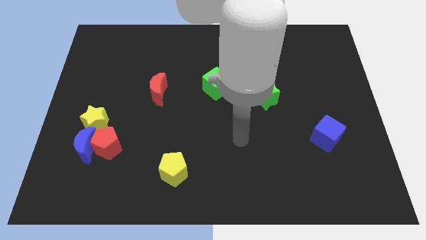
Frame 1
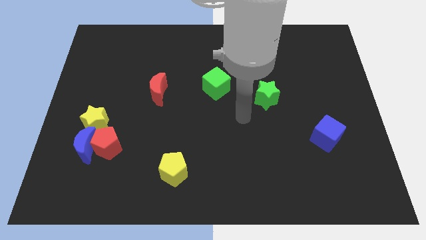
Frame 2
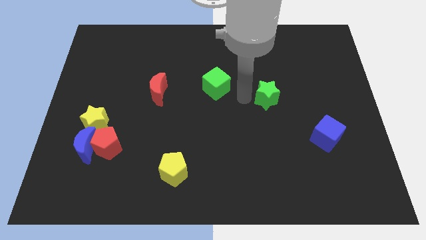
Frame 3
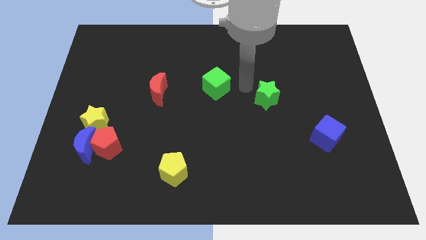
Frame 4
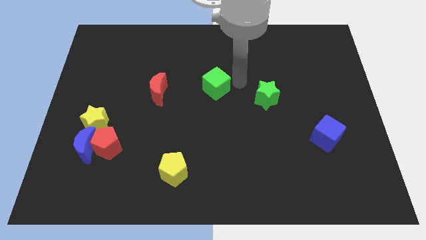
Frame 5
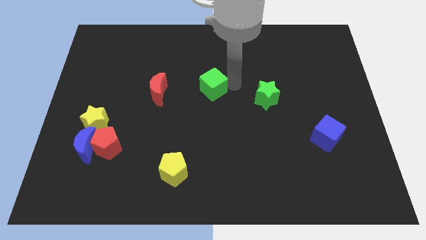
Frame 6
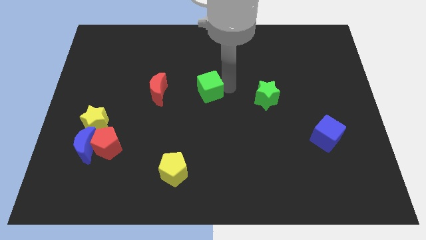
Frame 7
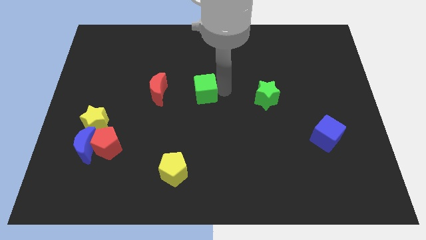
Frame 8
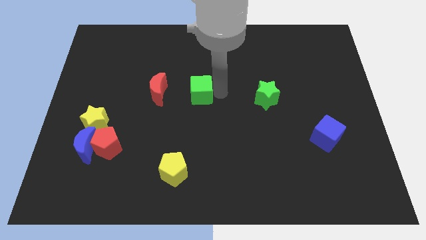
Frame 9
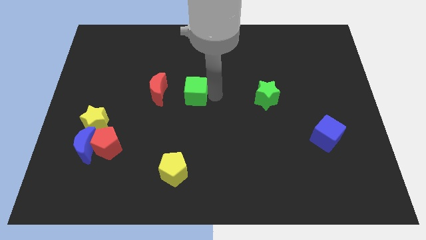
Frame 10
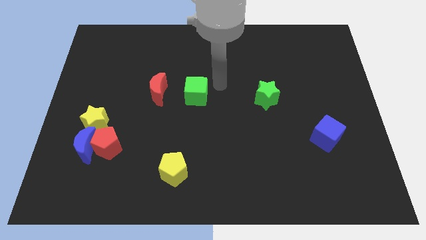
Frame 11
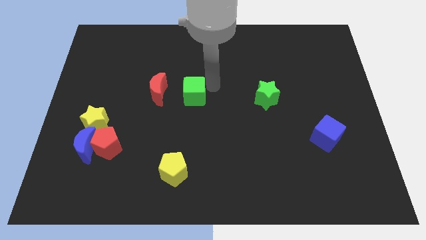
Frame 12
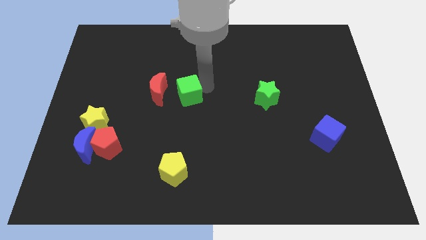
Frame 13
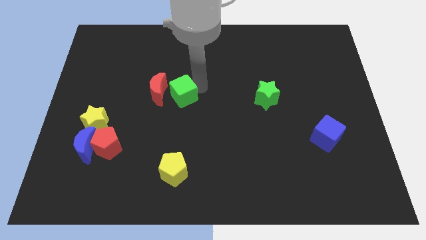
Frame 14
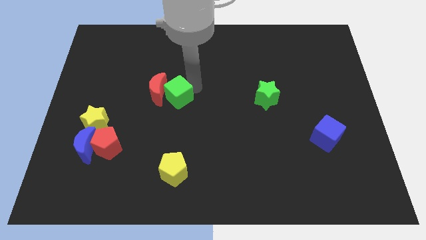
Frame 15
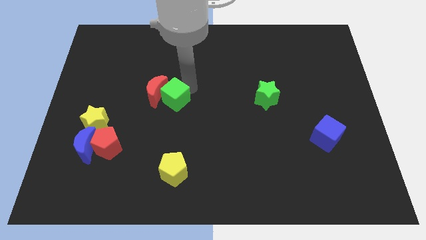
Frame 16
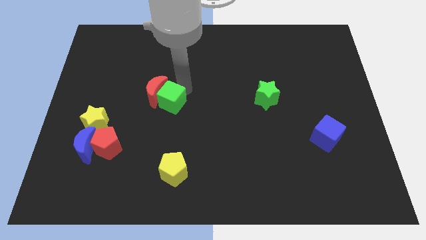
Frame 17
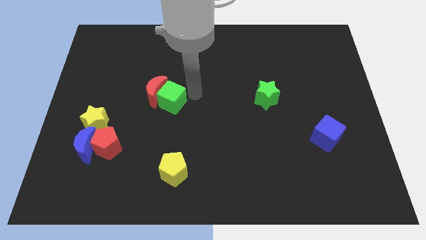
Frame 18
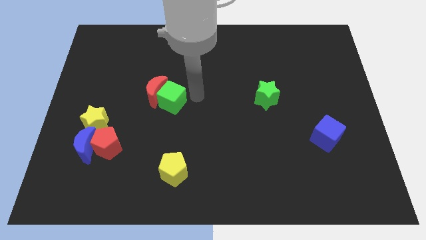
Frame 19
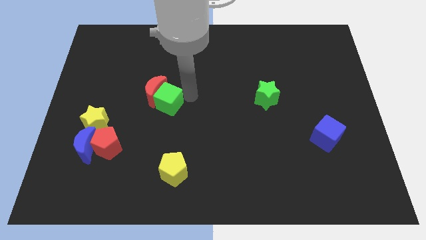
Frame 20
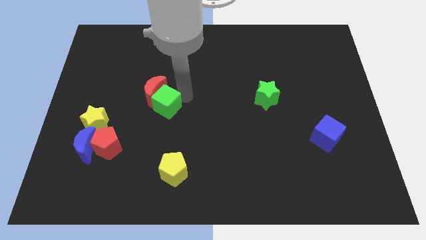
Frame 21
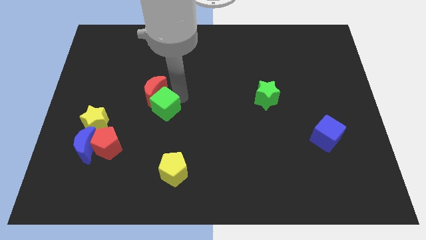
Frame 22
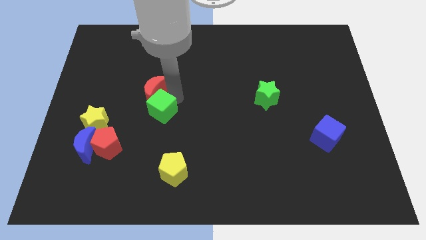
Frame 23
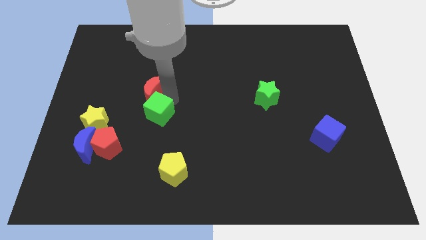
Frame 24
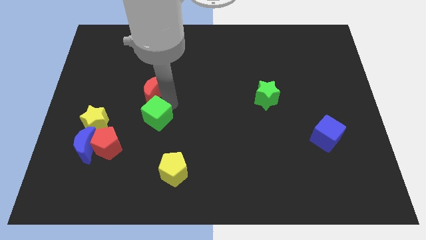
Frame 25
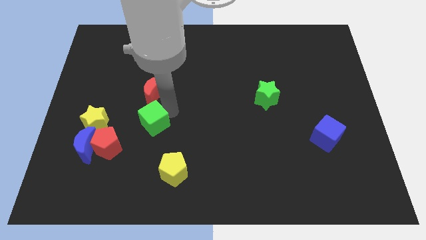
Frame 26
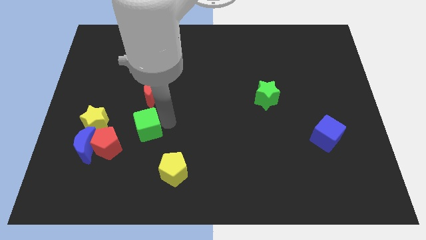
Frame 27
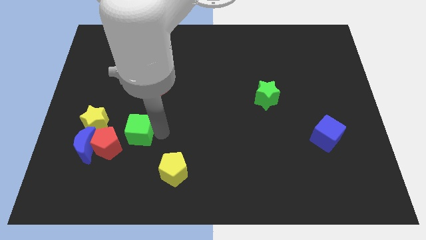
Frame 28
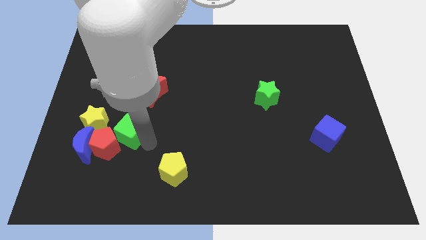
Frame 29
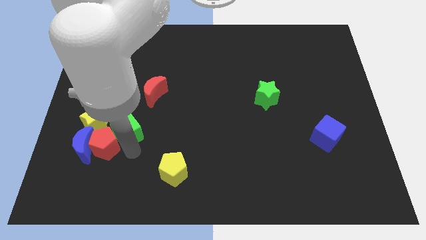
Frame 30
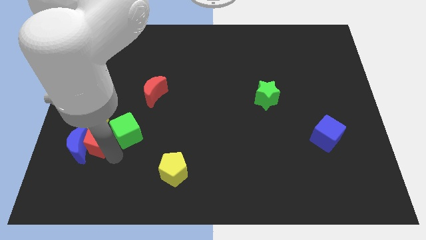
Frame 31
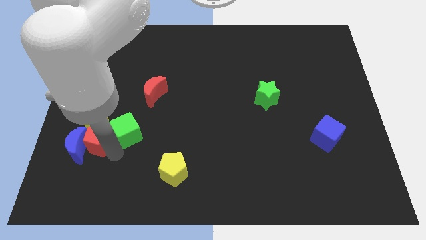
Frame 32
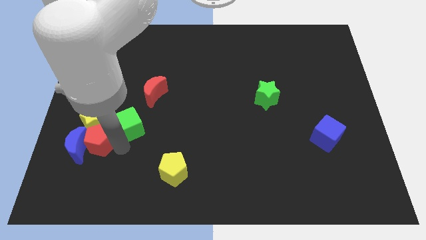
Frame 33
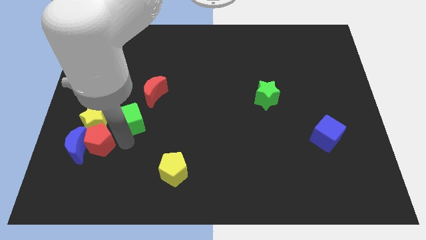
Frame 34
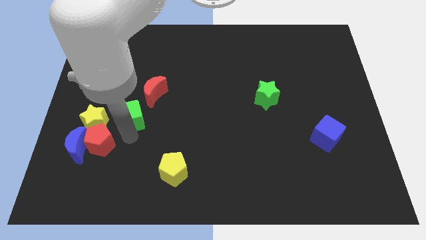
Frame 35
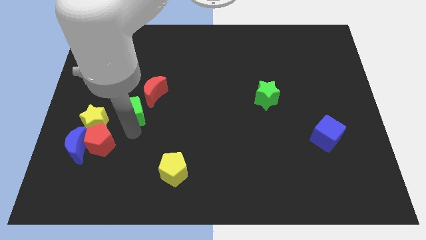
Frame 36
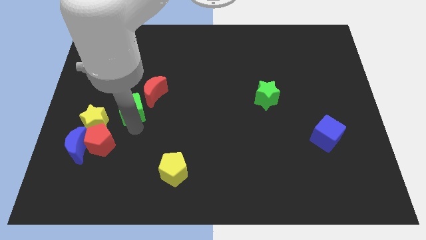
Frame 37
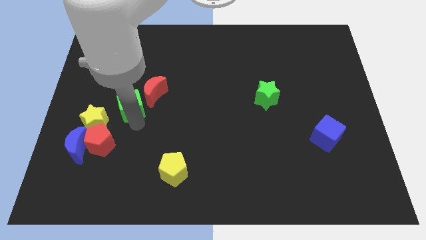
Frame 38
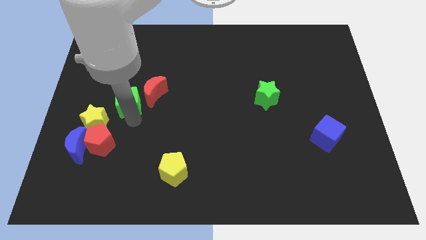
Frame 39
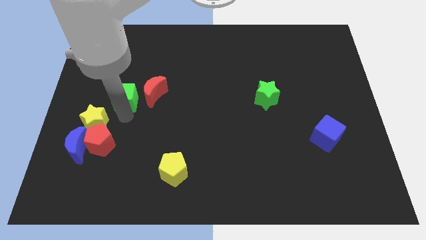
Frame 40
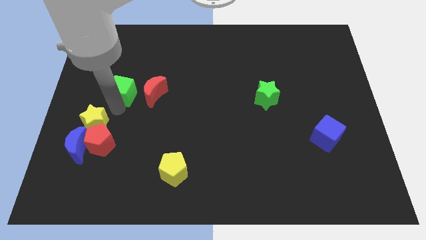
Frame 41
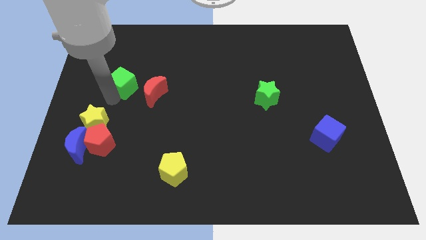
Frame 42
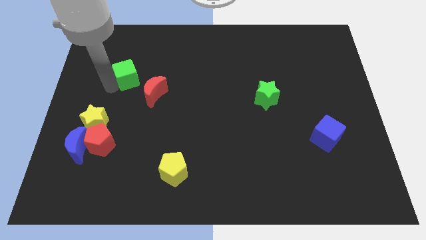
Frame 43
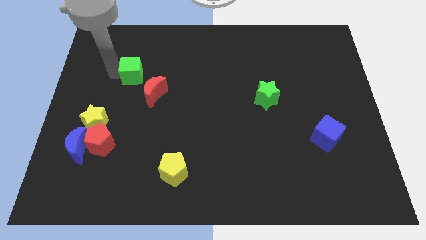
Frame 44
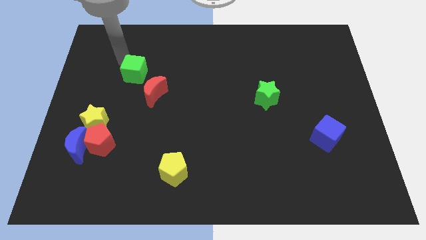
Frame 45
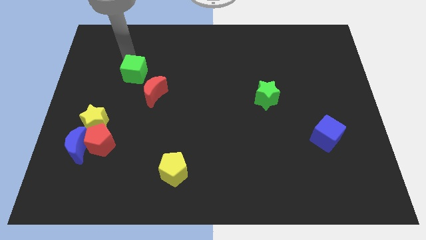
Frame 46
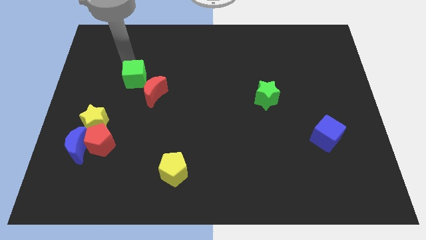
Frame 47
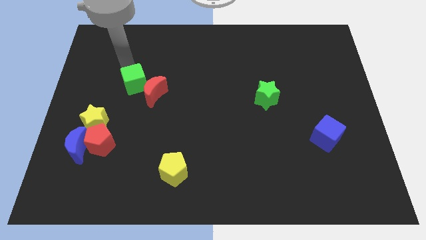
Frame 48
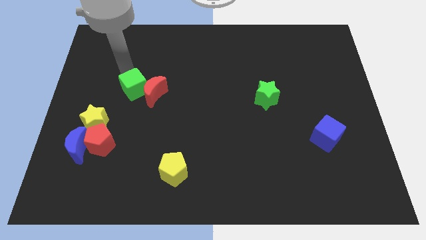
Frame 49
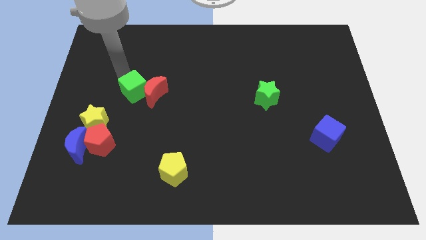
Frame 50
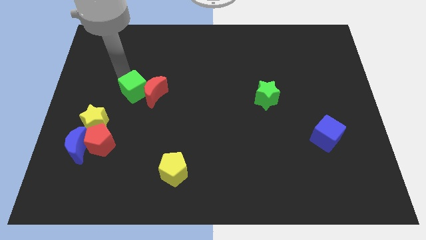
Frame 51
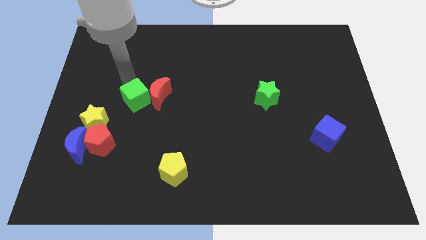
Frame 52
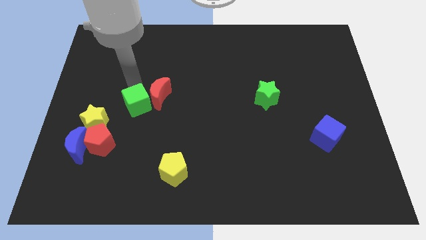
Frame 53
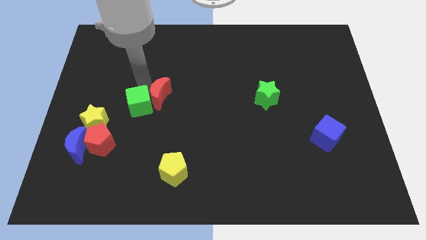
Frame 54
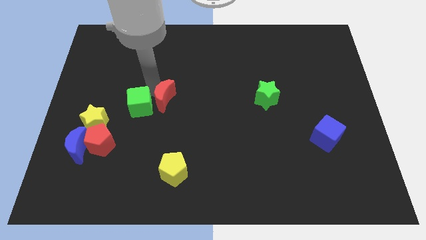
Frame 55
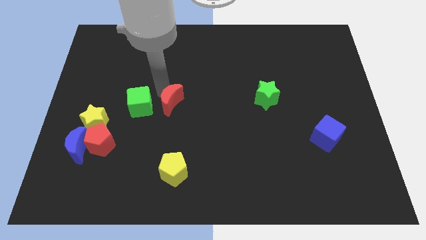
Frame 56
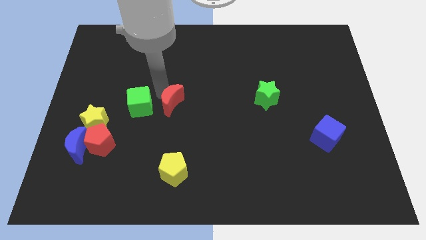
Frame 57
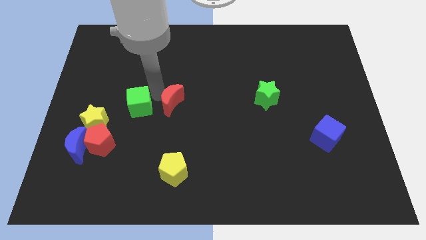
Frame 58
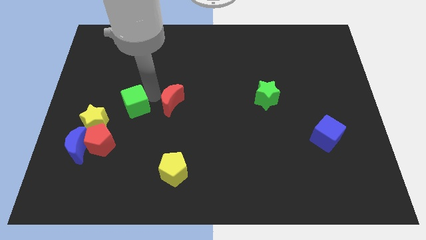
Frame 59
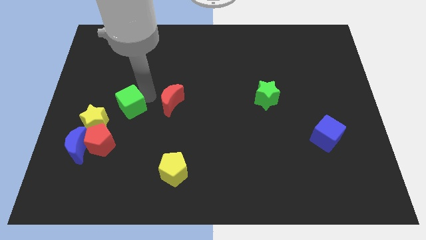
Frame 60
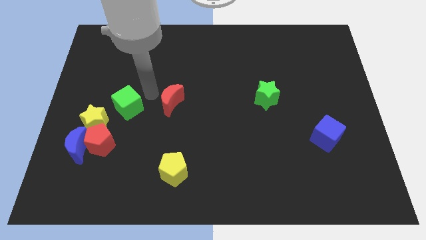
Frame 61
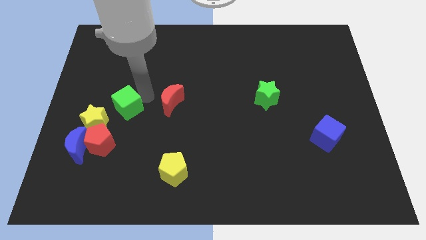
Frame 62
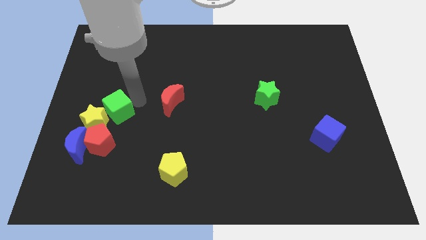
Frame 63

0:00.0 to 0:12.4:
move the green cube next to the yellow star

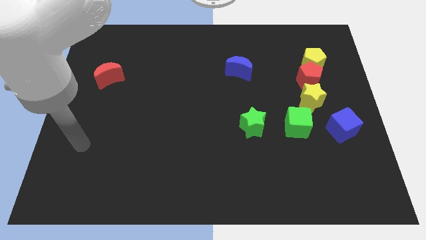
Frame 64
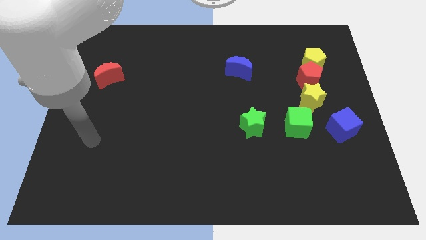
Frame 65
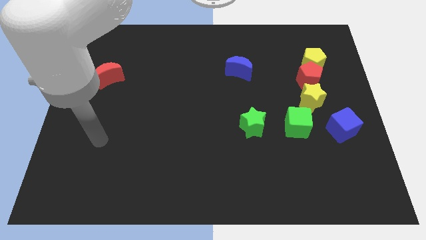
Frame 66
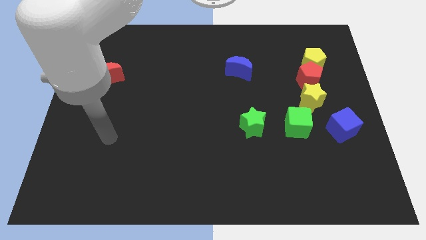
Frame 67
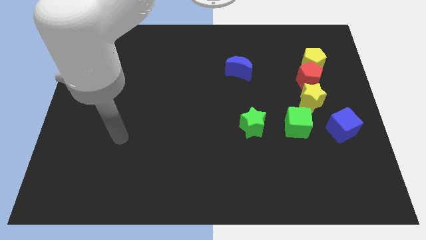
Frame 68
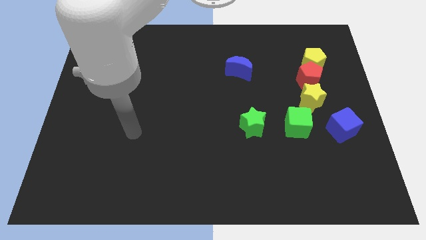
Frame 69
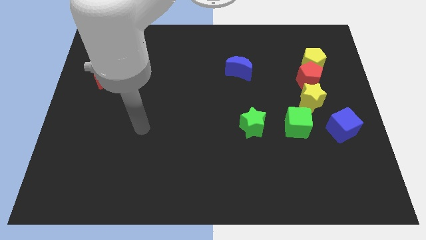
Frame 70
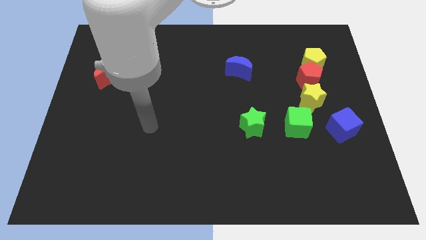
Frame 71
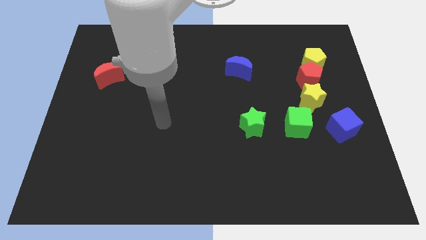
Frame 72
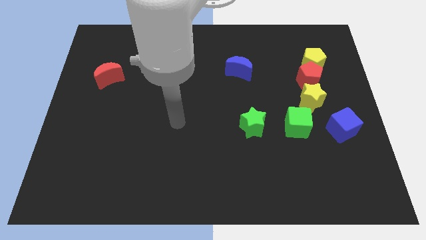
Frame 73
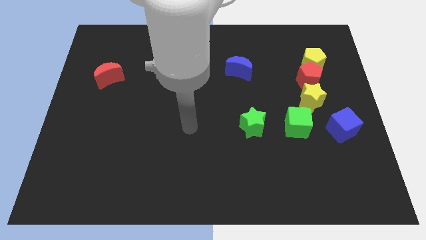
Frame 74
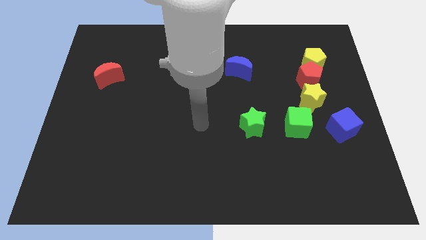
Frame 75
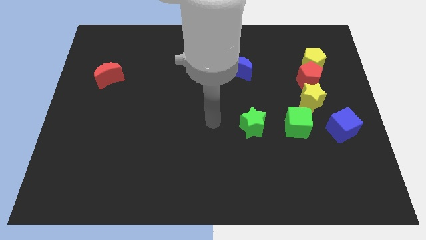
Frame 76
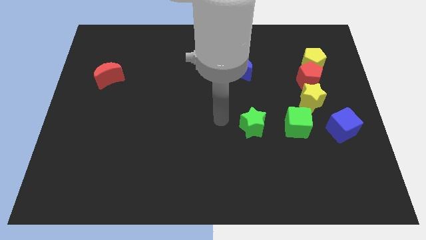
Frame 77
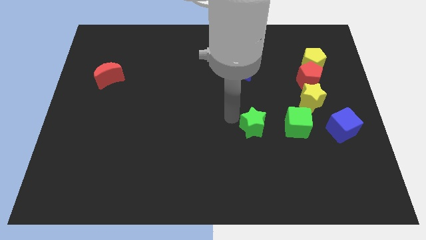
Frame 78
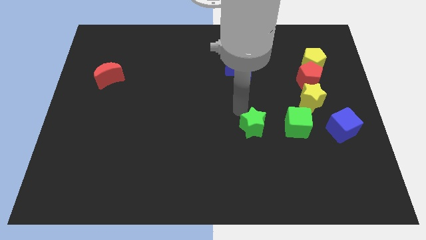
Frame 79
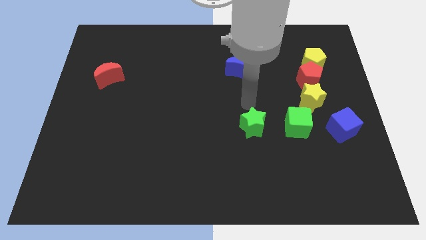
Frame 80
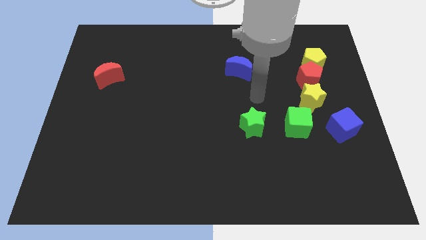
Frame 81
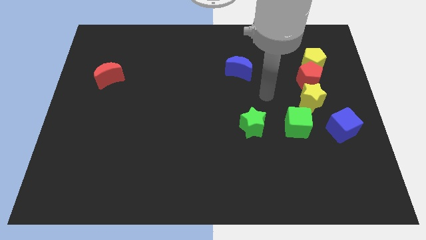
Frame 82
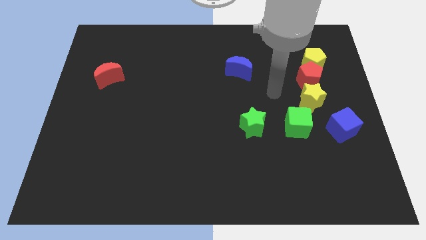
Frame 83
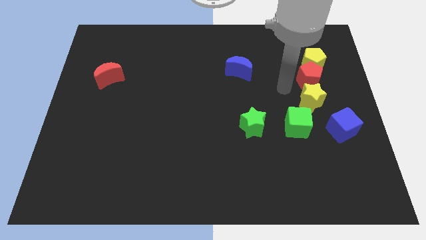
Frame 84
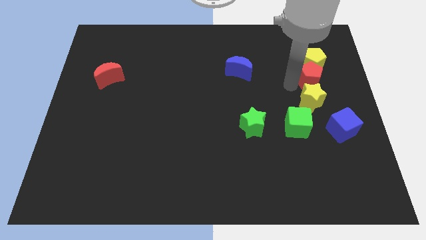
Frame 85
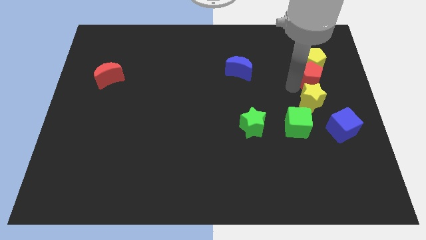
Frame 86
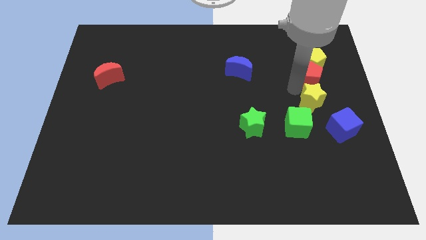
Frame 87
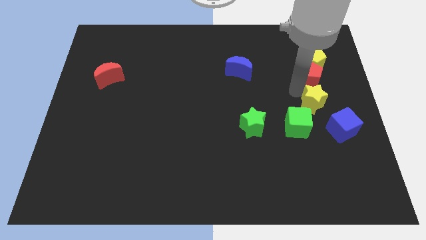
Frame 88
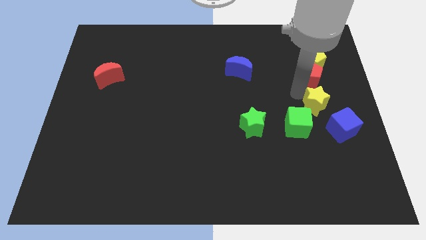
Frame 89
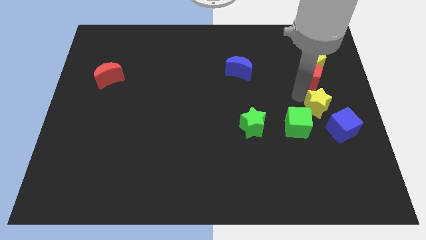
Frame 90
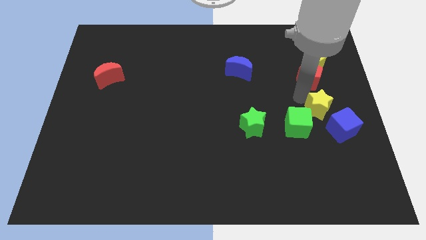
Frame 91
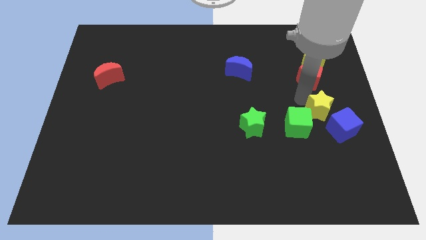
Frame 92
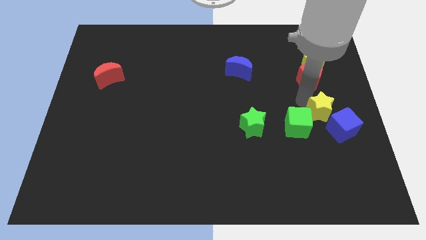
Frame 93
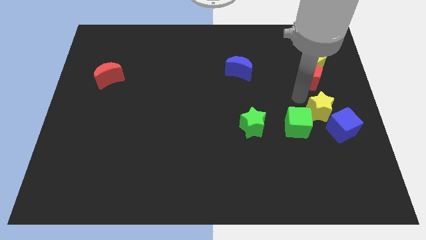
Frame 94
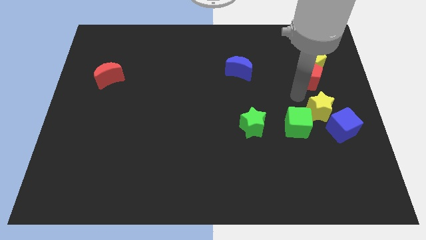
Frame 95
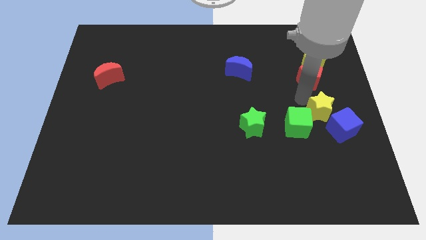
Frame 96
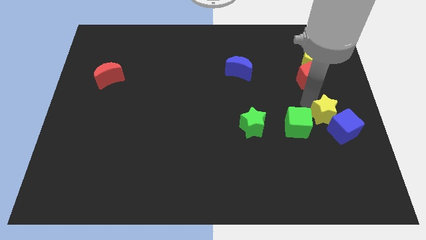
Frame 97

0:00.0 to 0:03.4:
put the yellow star next to the blue cube
